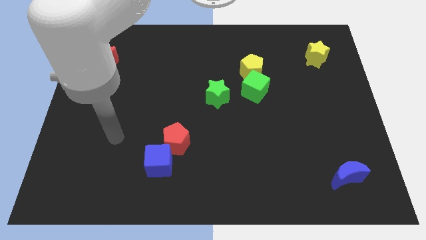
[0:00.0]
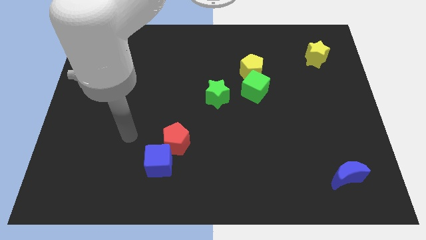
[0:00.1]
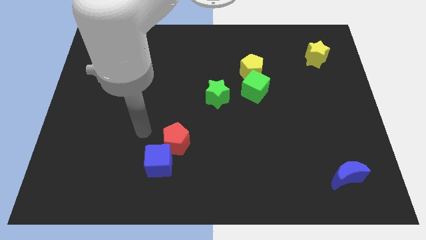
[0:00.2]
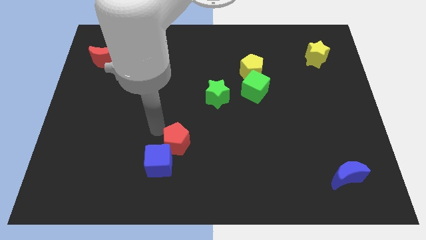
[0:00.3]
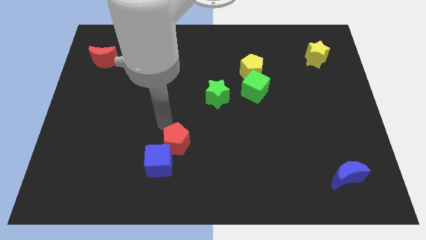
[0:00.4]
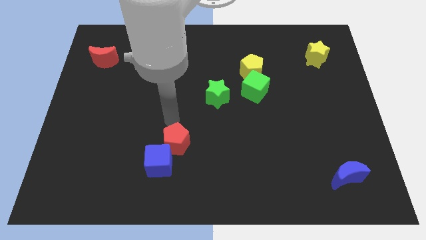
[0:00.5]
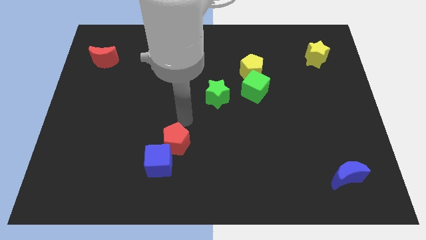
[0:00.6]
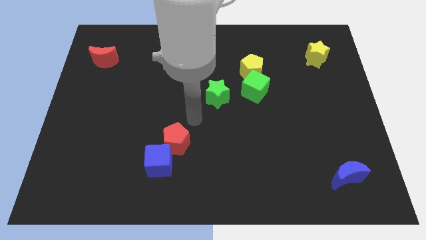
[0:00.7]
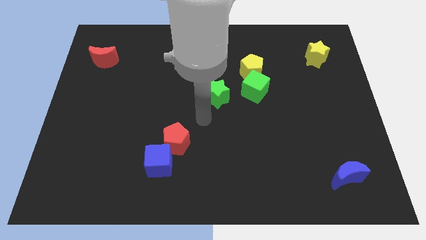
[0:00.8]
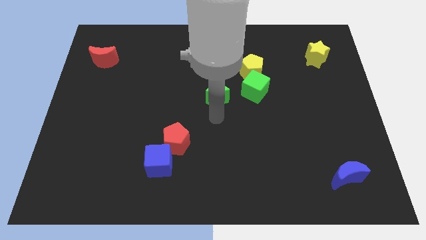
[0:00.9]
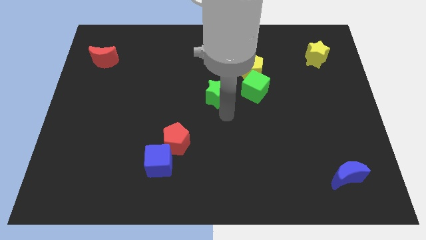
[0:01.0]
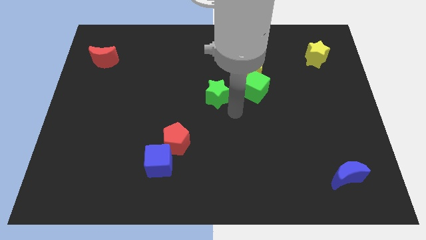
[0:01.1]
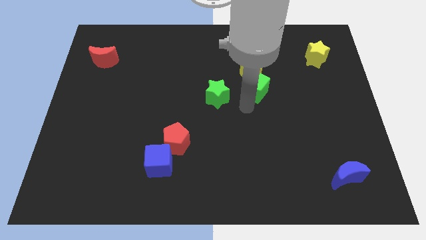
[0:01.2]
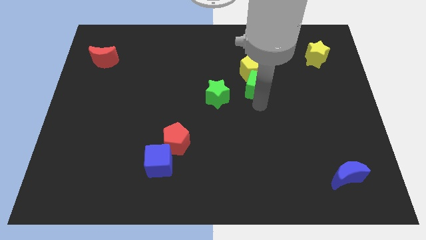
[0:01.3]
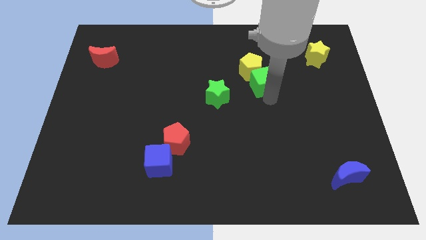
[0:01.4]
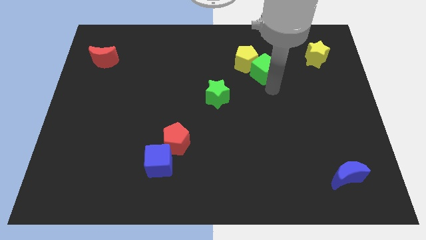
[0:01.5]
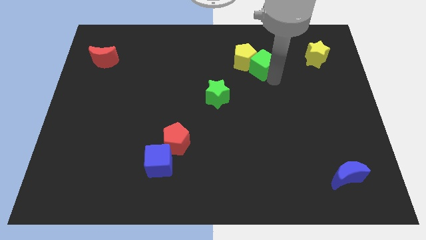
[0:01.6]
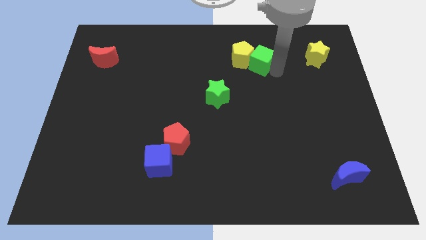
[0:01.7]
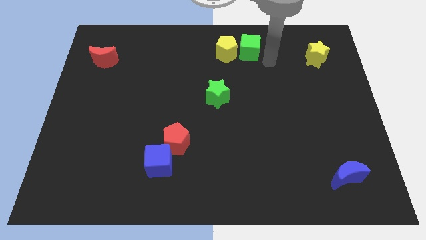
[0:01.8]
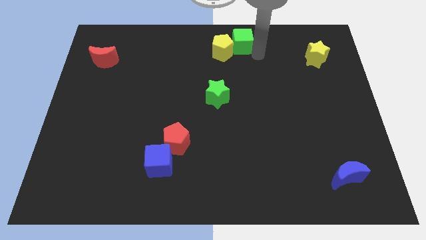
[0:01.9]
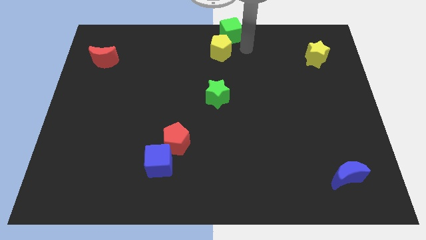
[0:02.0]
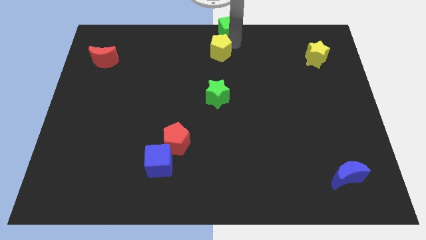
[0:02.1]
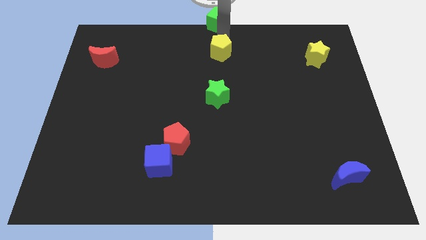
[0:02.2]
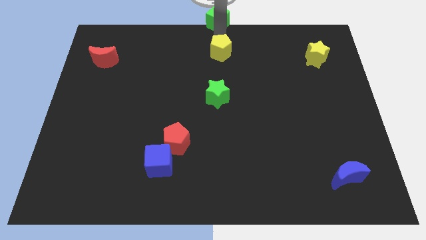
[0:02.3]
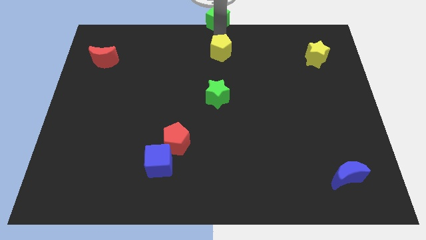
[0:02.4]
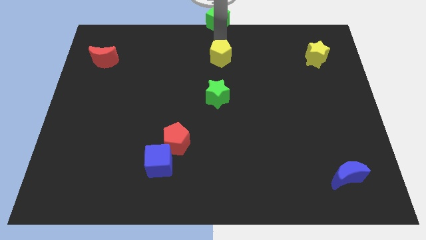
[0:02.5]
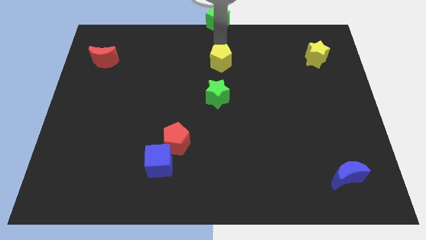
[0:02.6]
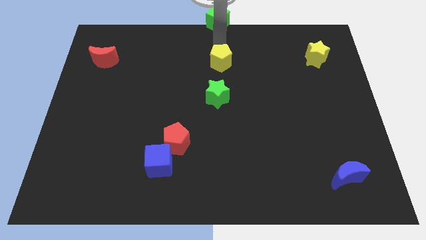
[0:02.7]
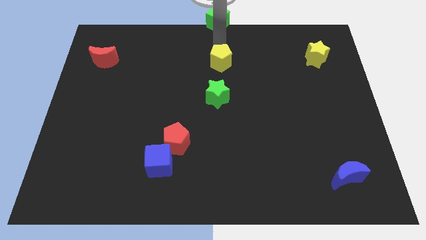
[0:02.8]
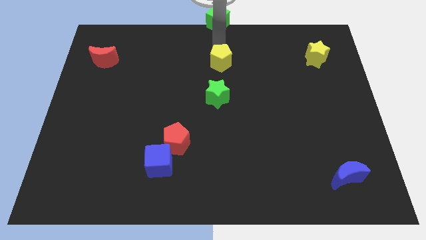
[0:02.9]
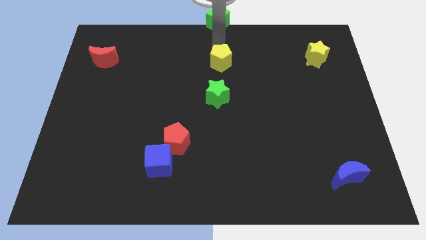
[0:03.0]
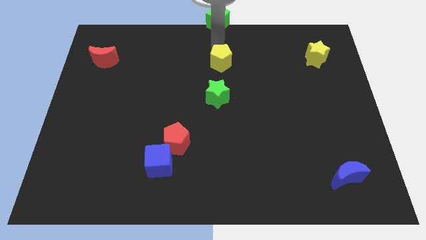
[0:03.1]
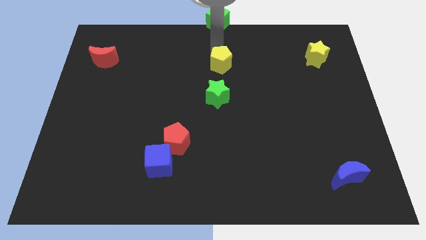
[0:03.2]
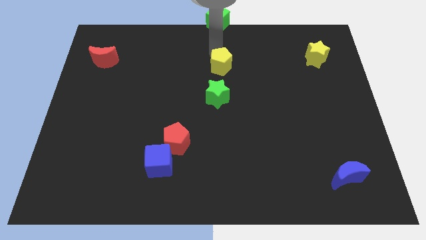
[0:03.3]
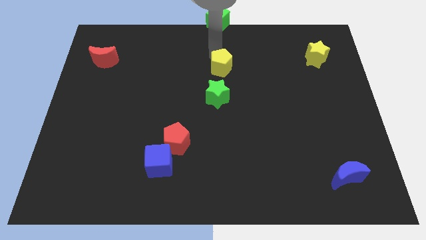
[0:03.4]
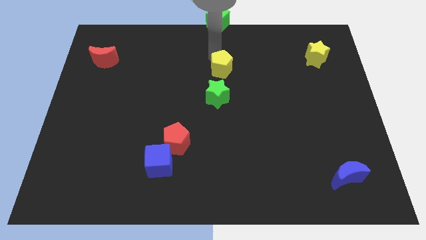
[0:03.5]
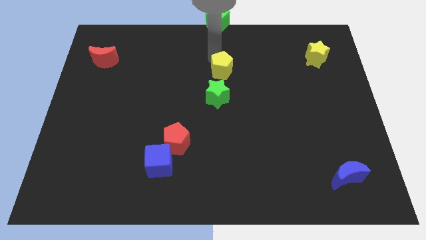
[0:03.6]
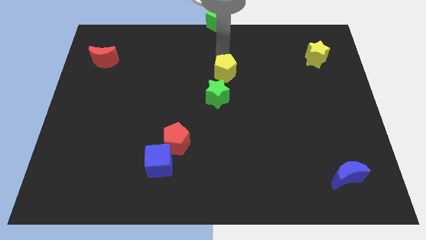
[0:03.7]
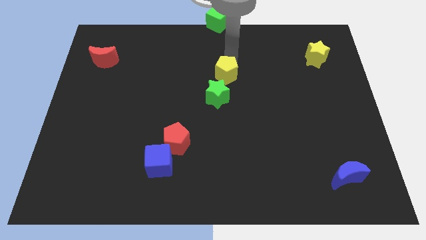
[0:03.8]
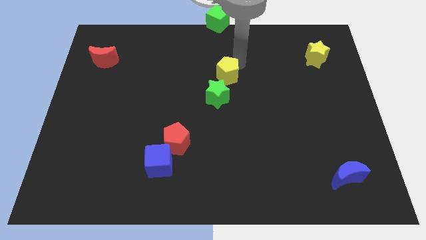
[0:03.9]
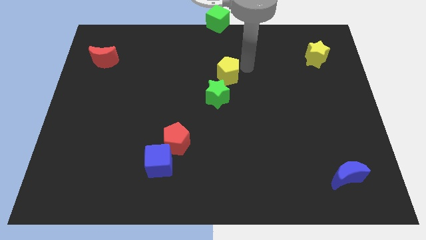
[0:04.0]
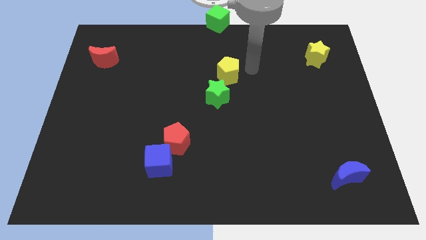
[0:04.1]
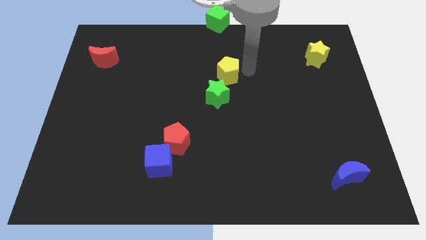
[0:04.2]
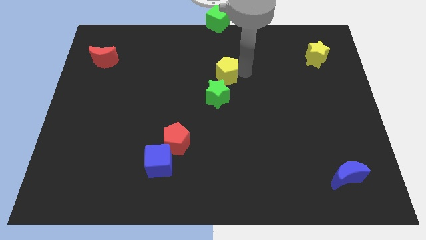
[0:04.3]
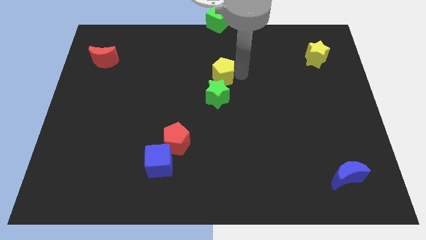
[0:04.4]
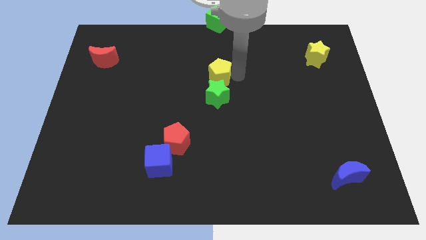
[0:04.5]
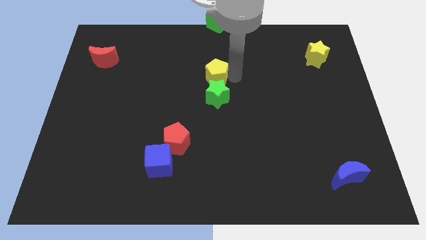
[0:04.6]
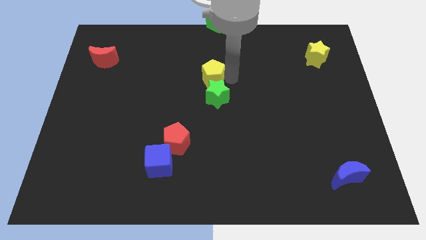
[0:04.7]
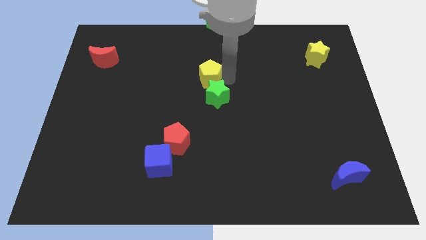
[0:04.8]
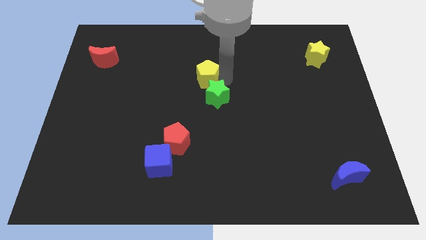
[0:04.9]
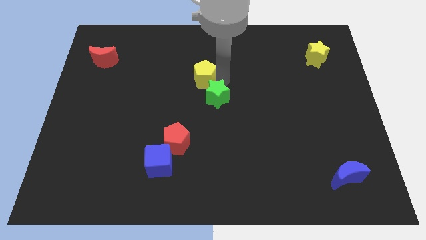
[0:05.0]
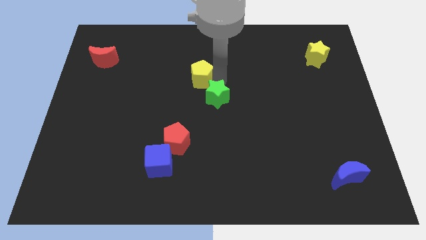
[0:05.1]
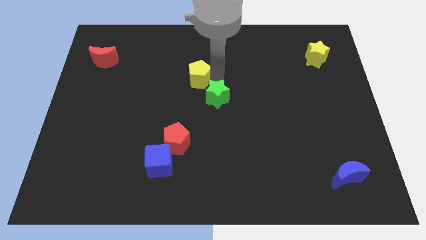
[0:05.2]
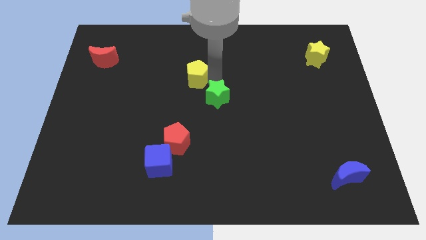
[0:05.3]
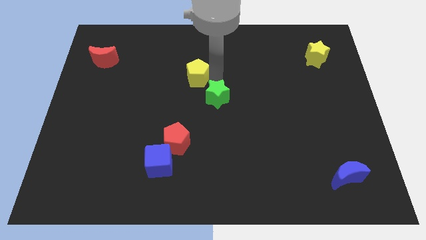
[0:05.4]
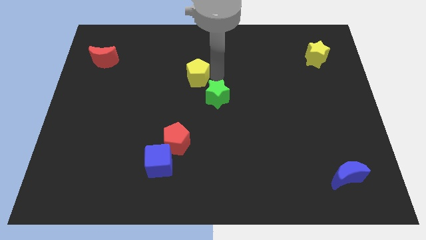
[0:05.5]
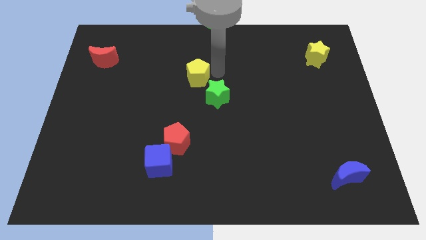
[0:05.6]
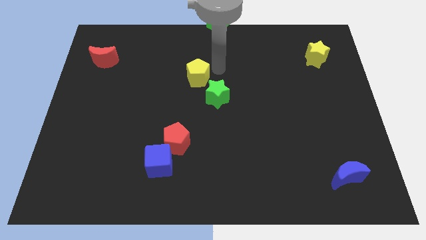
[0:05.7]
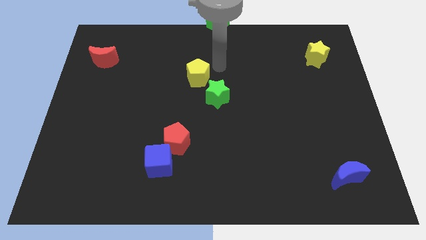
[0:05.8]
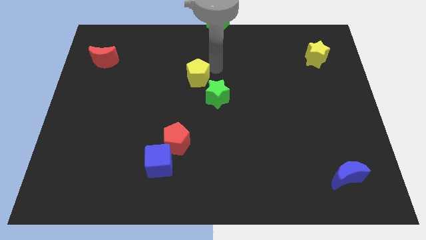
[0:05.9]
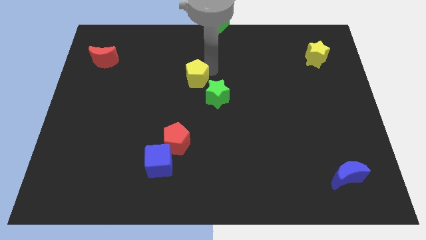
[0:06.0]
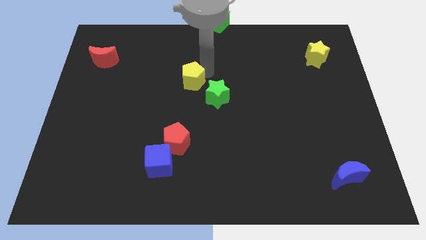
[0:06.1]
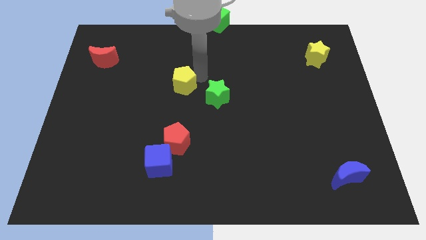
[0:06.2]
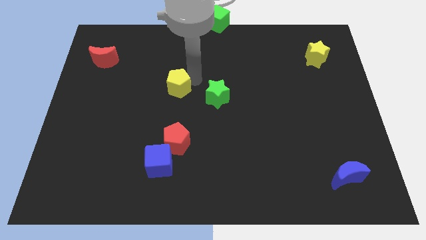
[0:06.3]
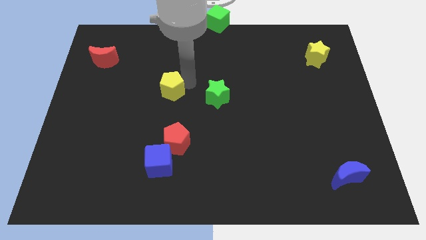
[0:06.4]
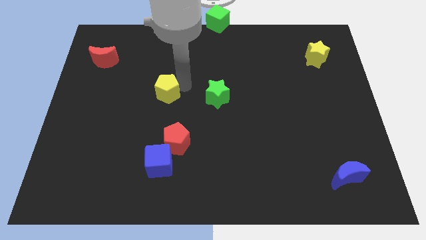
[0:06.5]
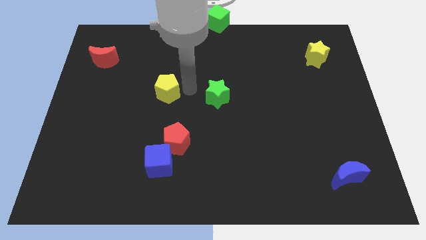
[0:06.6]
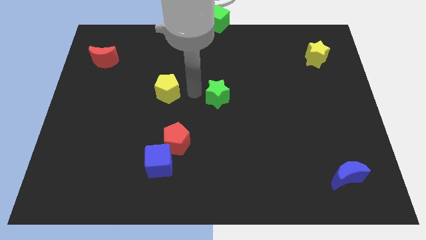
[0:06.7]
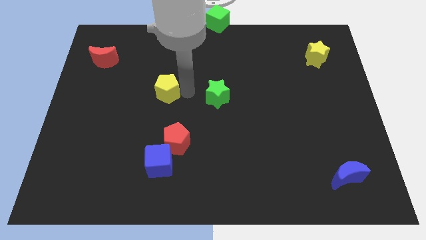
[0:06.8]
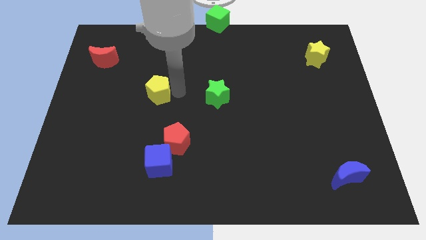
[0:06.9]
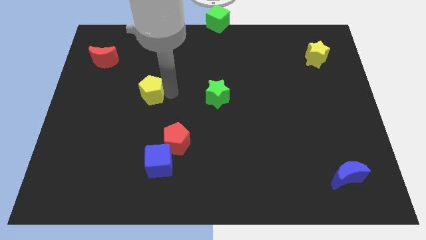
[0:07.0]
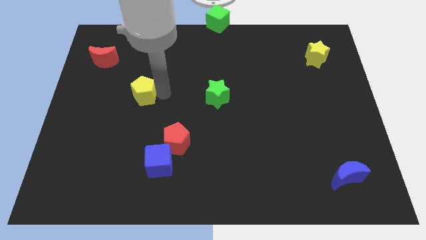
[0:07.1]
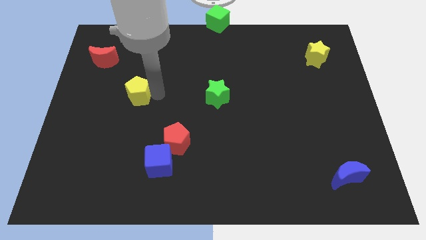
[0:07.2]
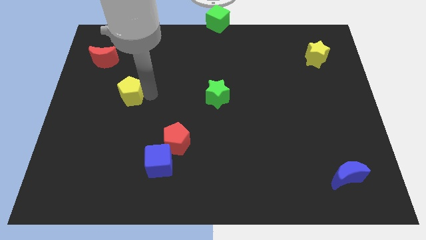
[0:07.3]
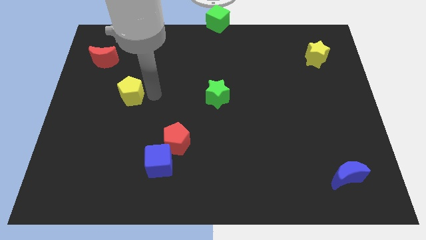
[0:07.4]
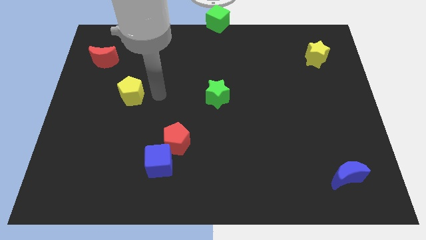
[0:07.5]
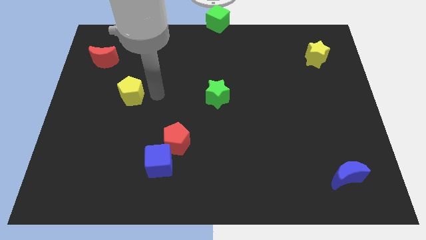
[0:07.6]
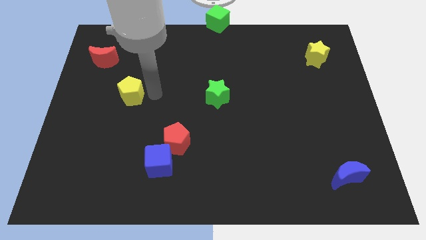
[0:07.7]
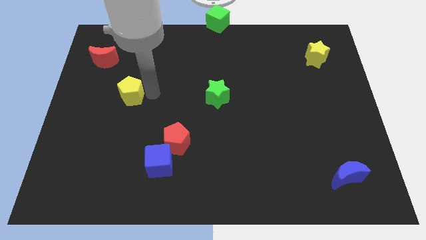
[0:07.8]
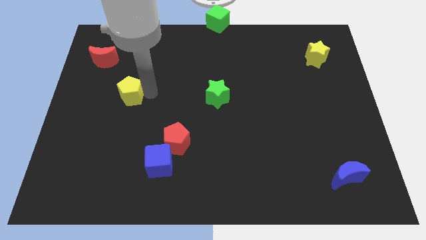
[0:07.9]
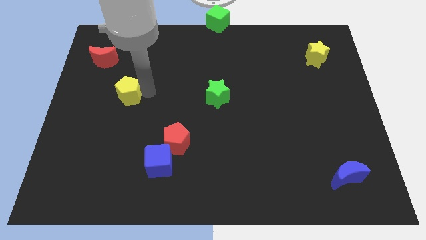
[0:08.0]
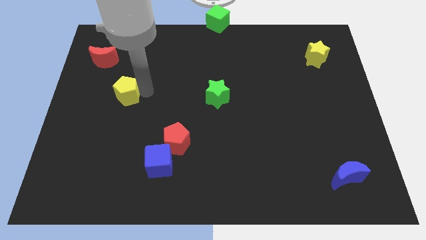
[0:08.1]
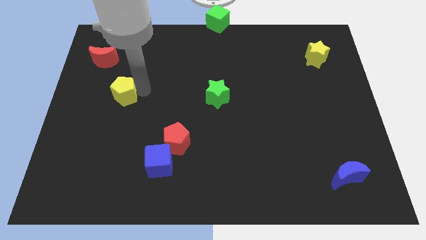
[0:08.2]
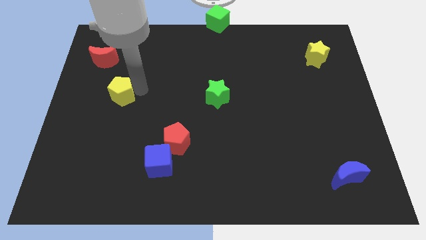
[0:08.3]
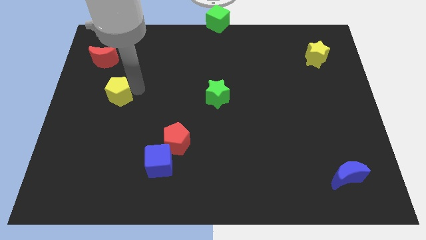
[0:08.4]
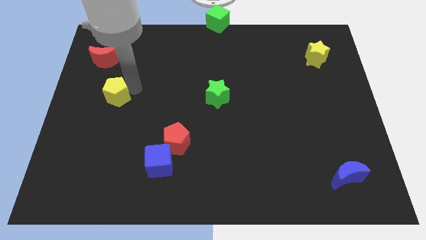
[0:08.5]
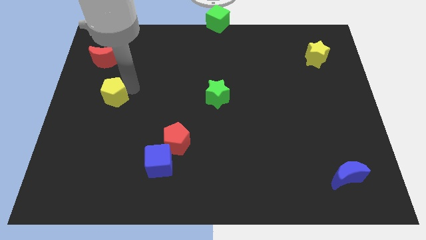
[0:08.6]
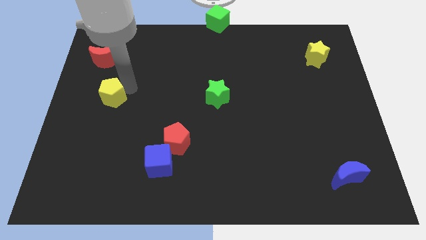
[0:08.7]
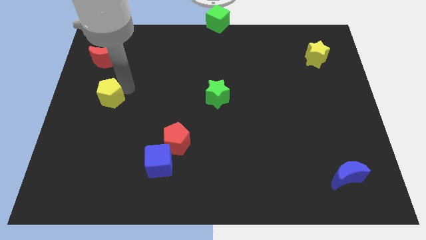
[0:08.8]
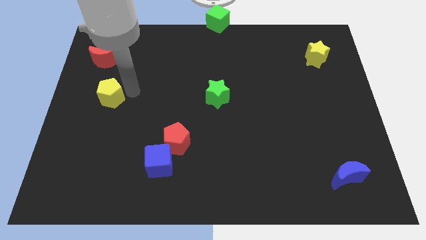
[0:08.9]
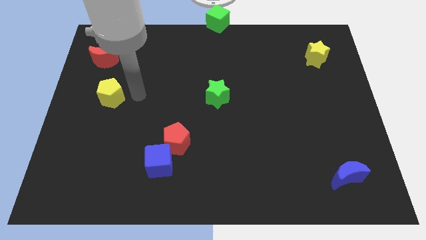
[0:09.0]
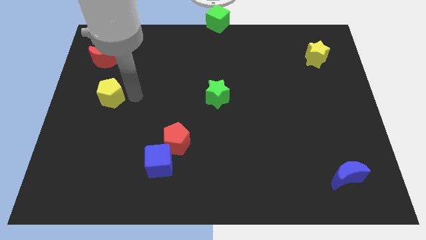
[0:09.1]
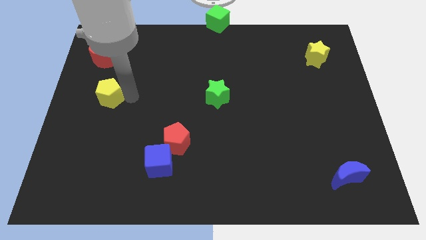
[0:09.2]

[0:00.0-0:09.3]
move the yellow pentagon to the left side of the board
